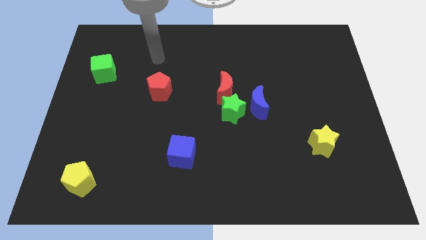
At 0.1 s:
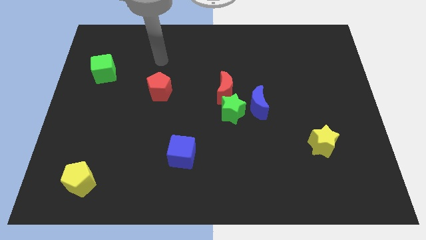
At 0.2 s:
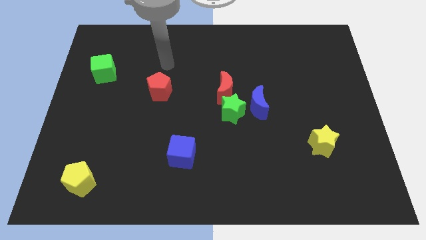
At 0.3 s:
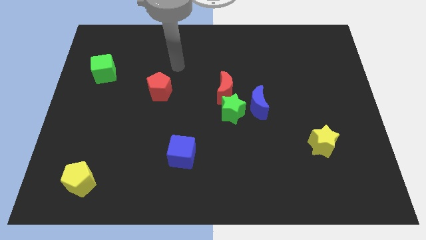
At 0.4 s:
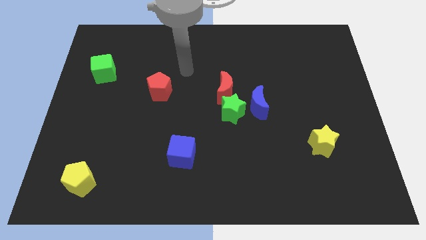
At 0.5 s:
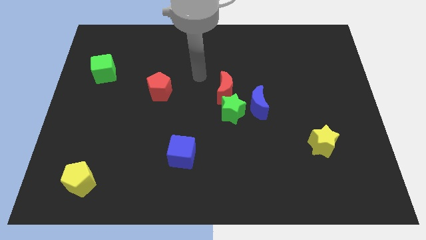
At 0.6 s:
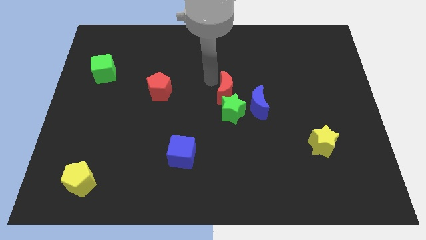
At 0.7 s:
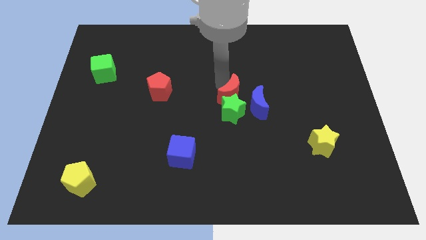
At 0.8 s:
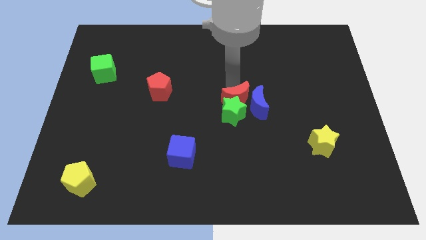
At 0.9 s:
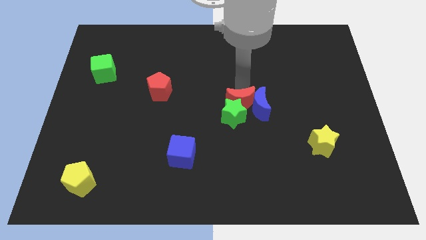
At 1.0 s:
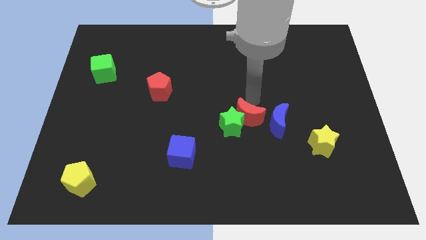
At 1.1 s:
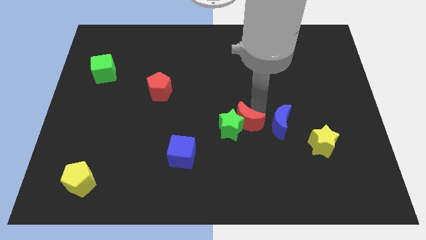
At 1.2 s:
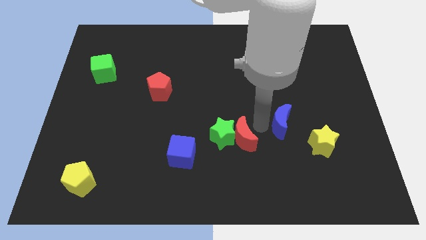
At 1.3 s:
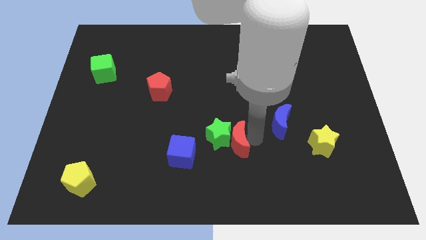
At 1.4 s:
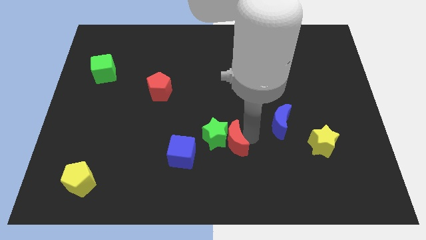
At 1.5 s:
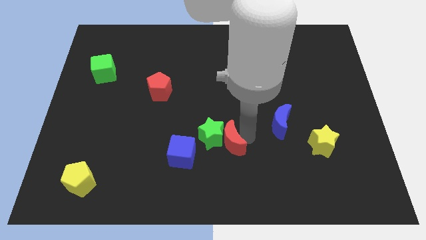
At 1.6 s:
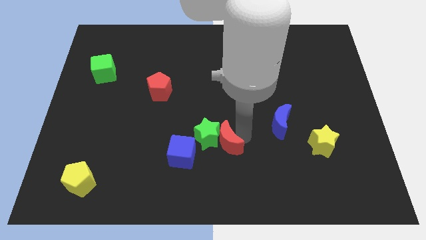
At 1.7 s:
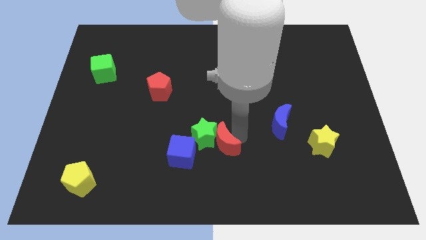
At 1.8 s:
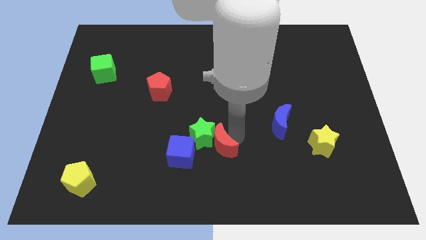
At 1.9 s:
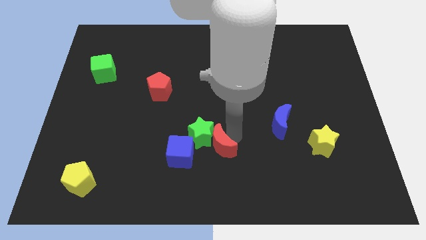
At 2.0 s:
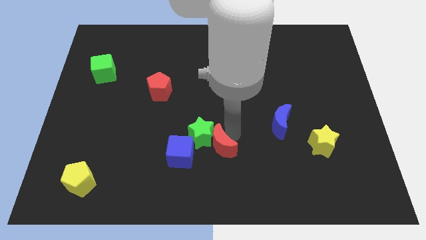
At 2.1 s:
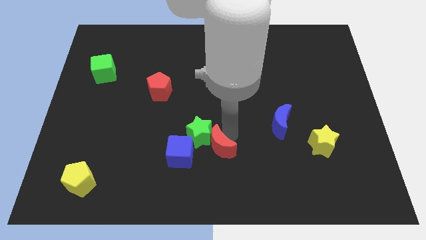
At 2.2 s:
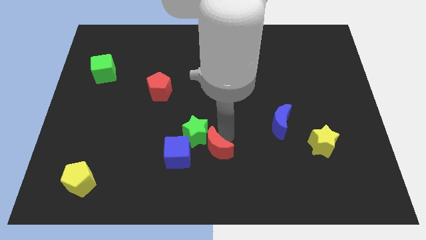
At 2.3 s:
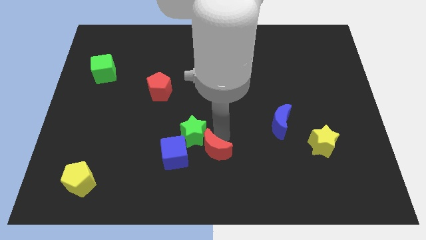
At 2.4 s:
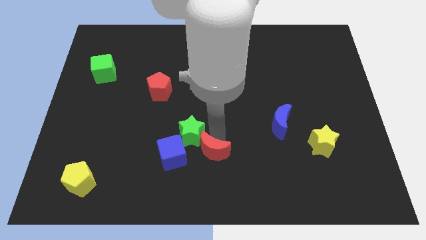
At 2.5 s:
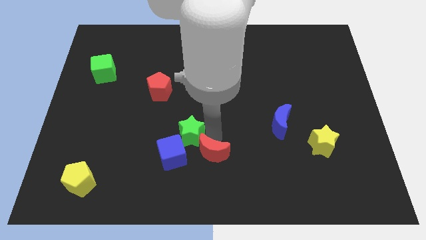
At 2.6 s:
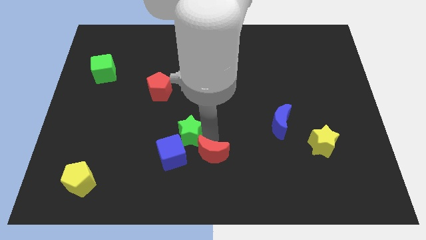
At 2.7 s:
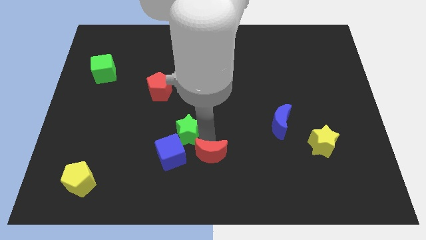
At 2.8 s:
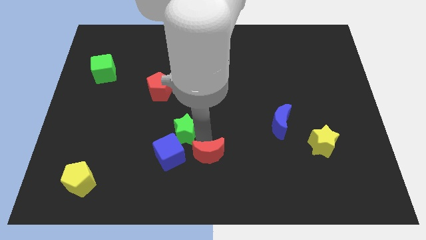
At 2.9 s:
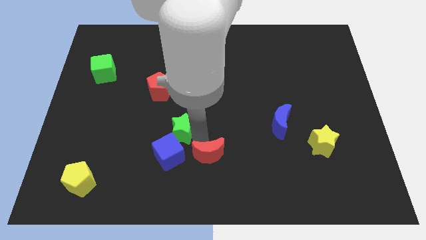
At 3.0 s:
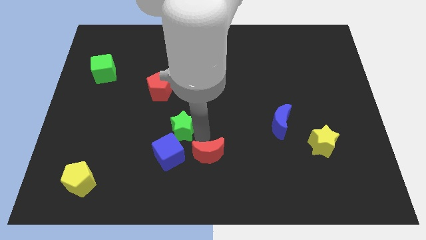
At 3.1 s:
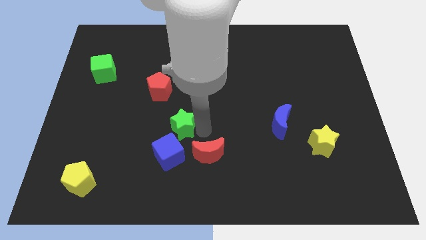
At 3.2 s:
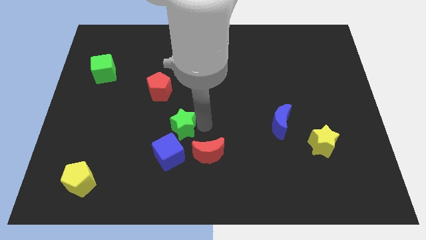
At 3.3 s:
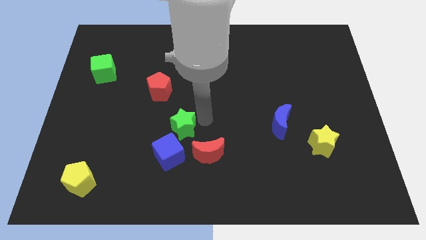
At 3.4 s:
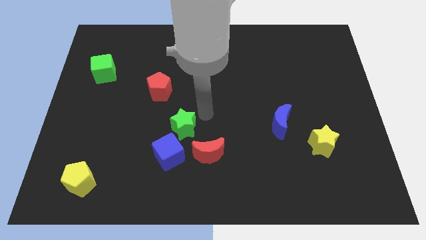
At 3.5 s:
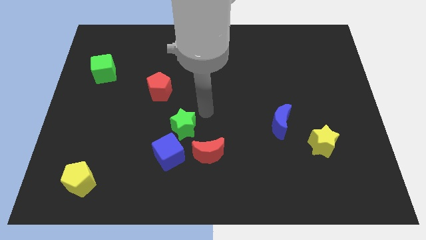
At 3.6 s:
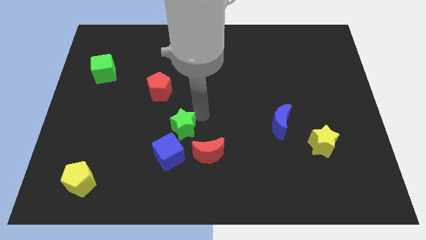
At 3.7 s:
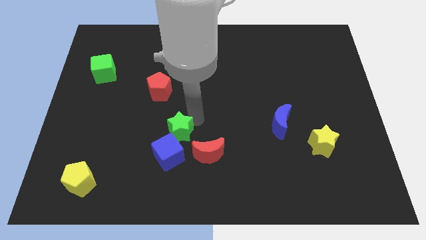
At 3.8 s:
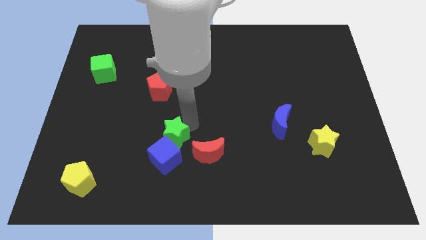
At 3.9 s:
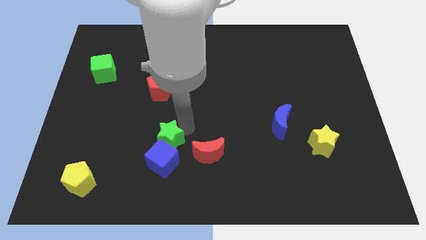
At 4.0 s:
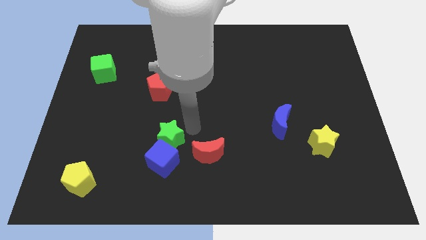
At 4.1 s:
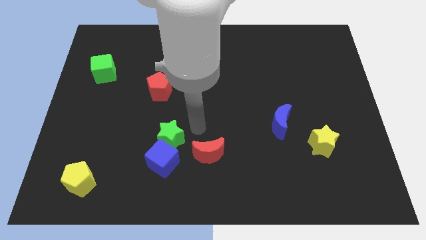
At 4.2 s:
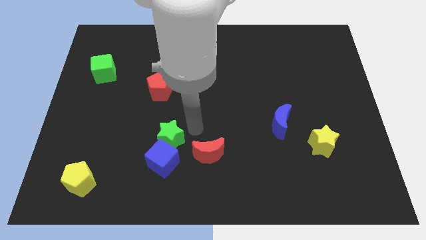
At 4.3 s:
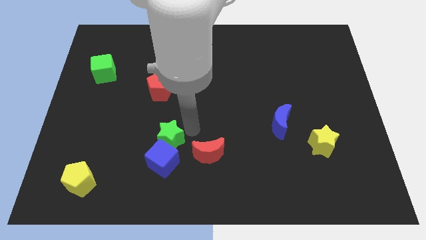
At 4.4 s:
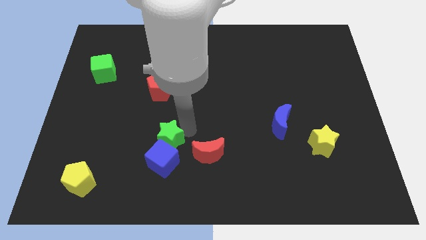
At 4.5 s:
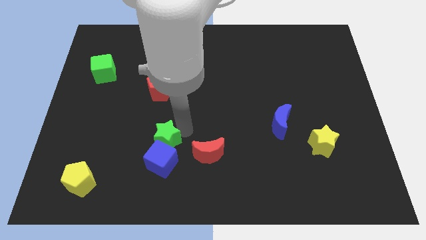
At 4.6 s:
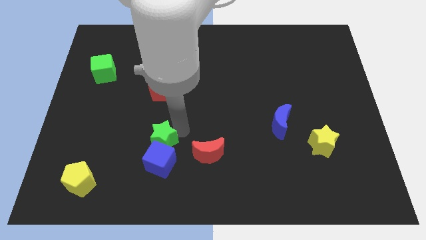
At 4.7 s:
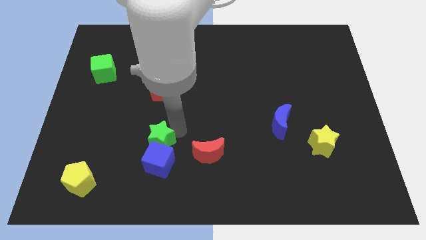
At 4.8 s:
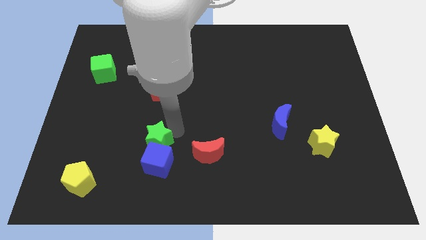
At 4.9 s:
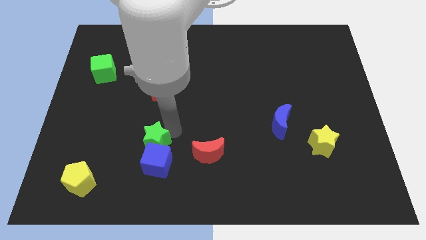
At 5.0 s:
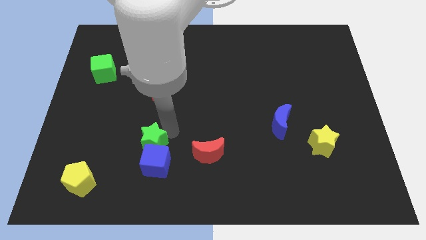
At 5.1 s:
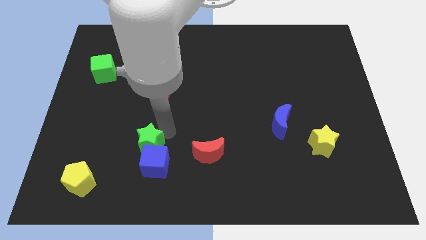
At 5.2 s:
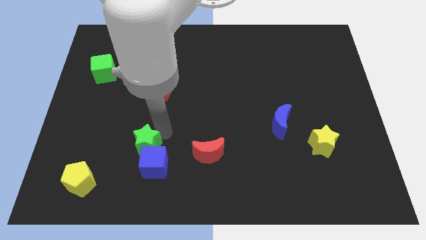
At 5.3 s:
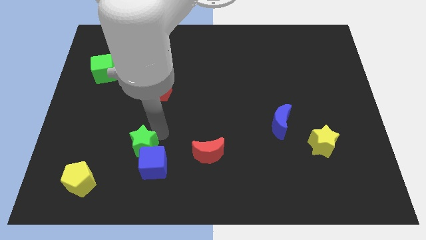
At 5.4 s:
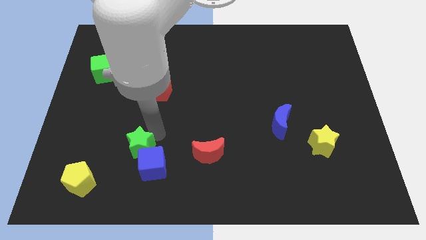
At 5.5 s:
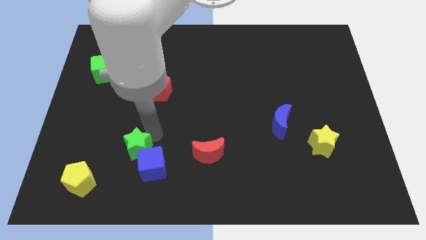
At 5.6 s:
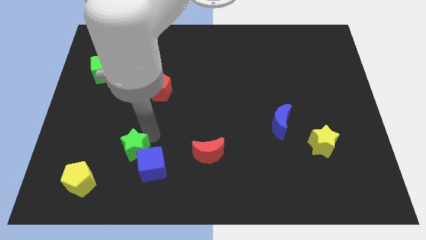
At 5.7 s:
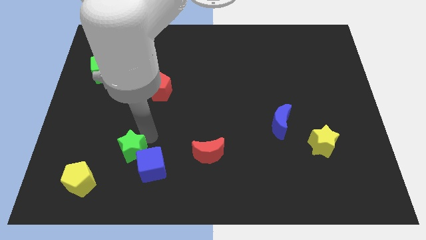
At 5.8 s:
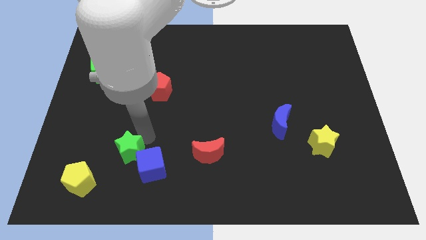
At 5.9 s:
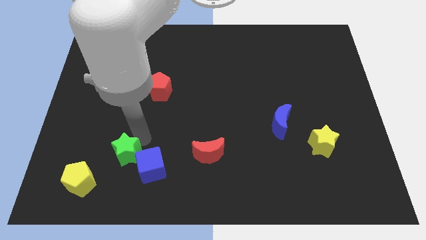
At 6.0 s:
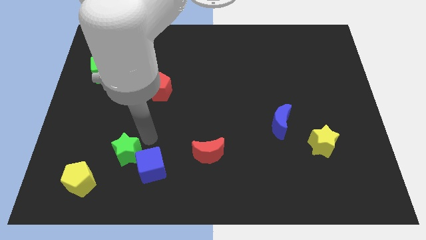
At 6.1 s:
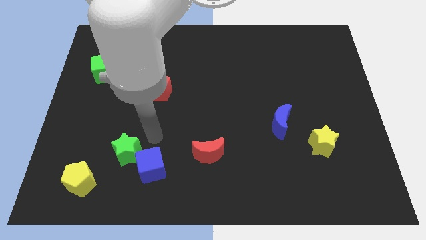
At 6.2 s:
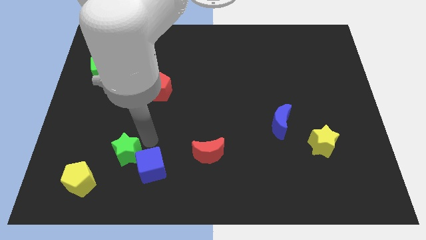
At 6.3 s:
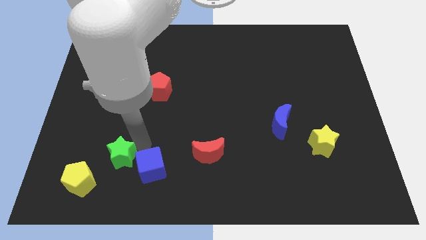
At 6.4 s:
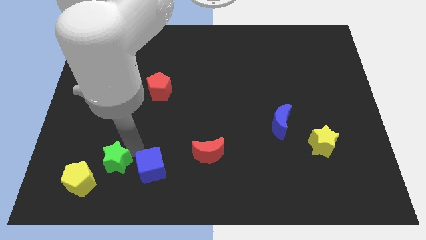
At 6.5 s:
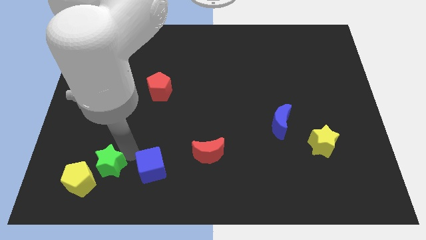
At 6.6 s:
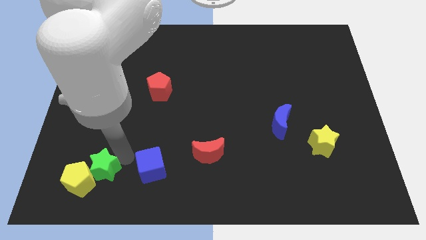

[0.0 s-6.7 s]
push the green star close to the yellow pentagon
